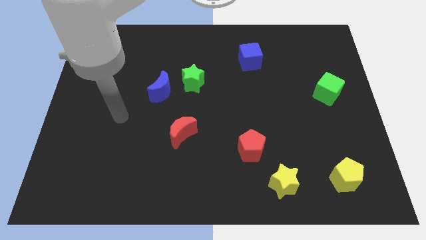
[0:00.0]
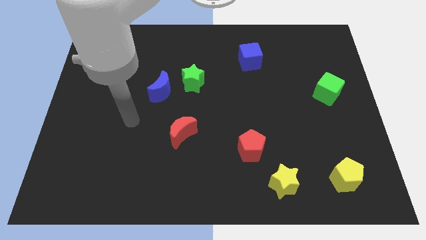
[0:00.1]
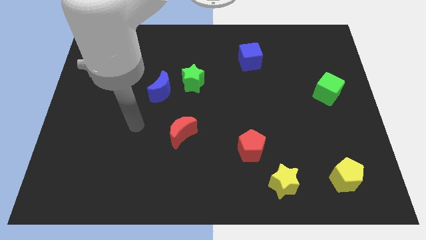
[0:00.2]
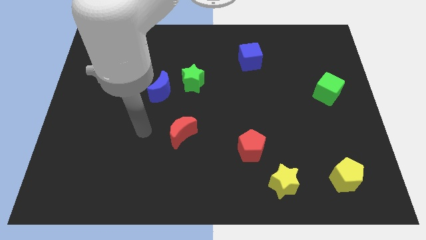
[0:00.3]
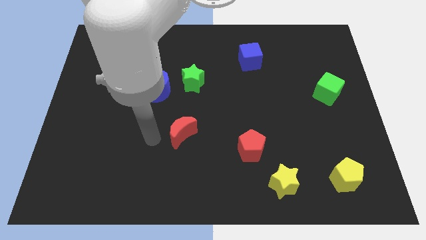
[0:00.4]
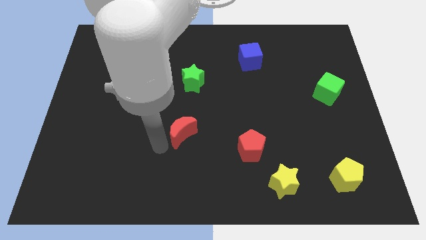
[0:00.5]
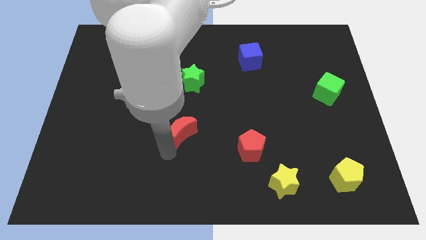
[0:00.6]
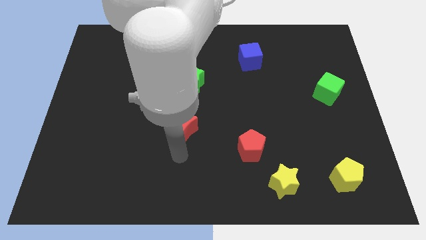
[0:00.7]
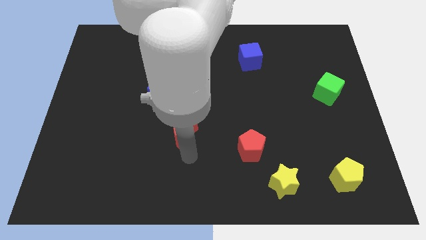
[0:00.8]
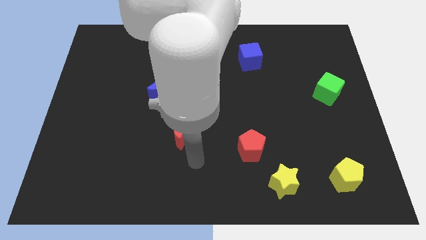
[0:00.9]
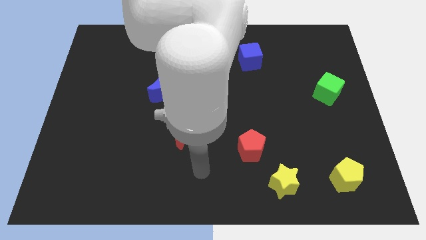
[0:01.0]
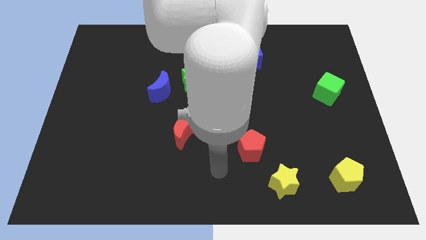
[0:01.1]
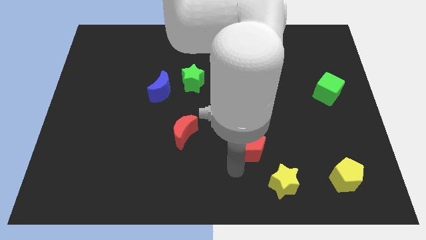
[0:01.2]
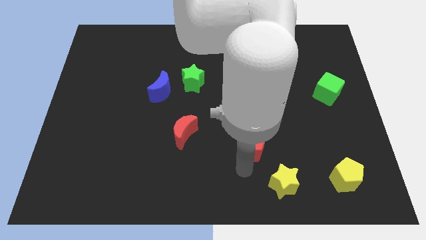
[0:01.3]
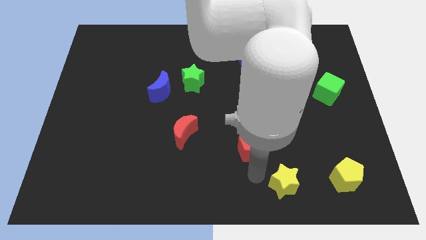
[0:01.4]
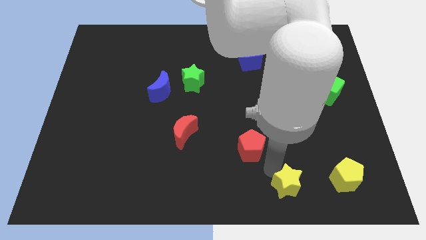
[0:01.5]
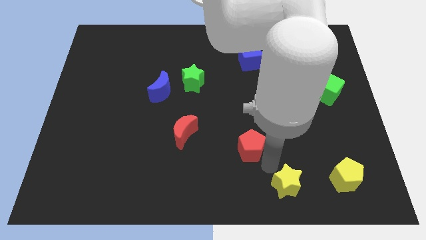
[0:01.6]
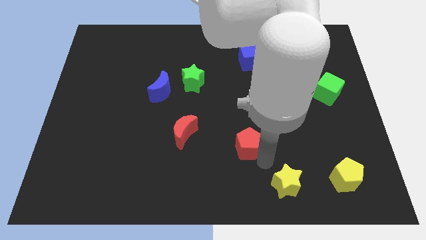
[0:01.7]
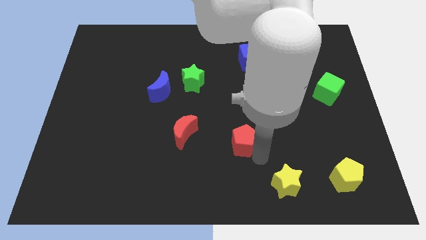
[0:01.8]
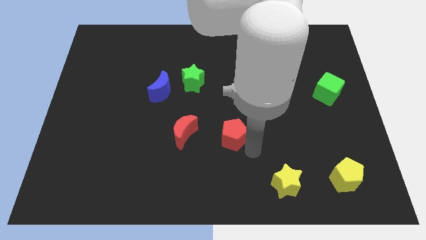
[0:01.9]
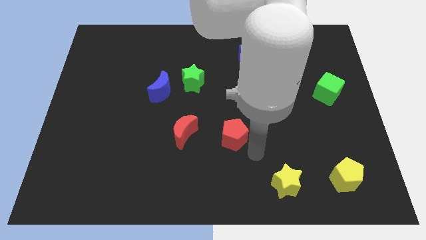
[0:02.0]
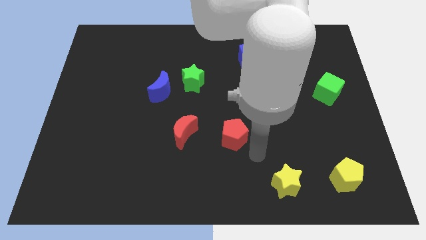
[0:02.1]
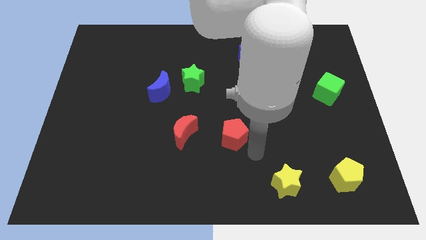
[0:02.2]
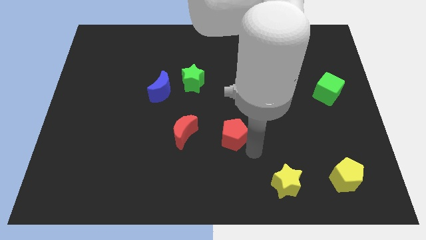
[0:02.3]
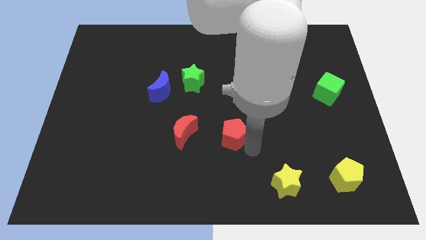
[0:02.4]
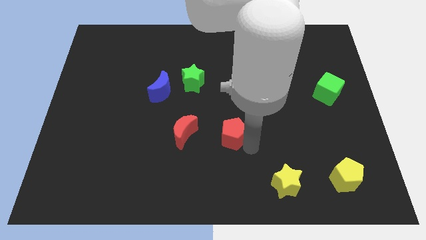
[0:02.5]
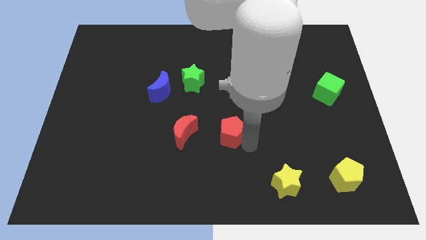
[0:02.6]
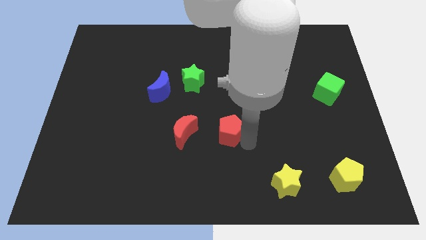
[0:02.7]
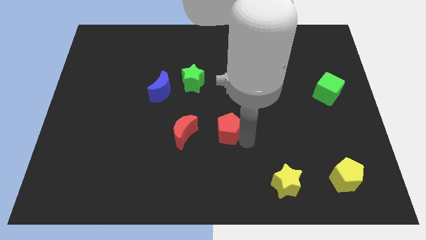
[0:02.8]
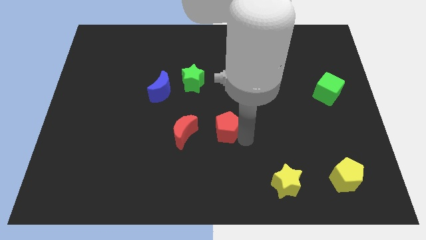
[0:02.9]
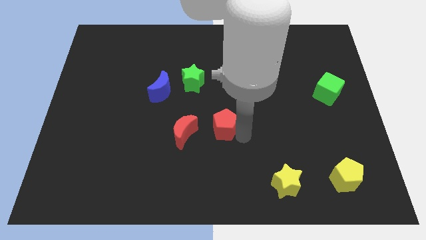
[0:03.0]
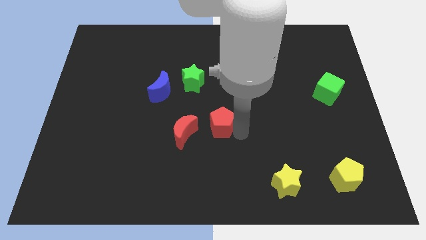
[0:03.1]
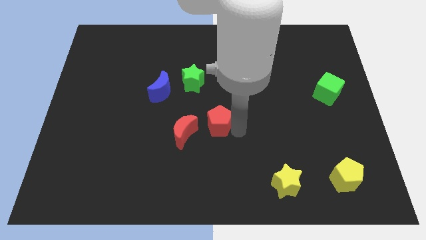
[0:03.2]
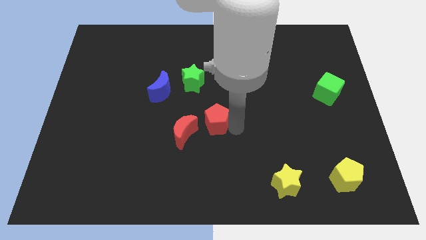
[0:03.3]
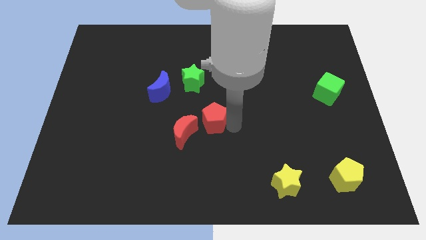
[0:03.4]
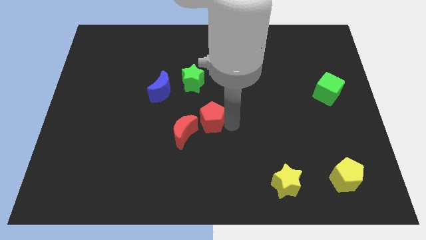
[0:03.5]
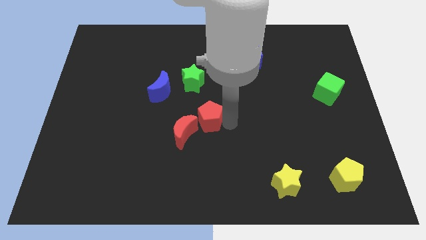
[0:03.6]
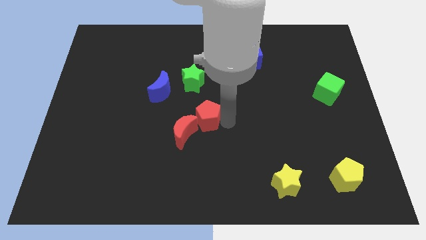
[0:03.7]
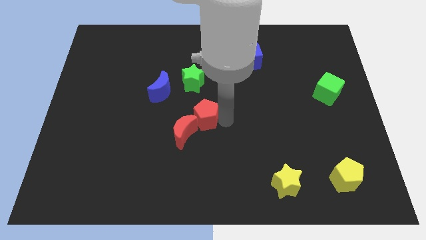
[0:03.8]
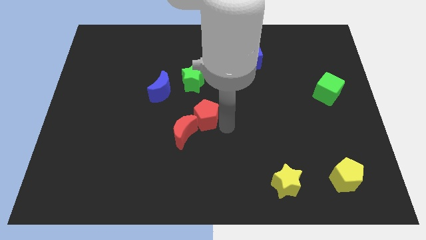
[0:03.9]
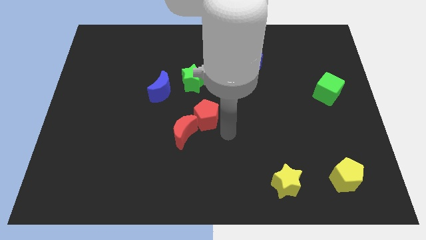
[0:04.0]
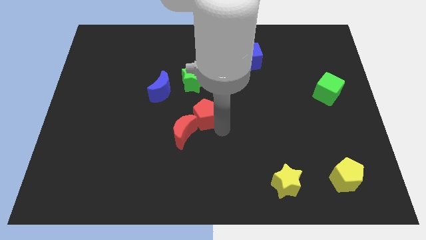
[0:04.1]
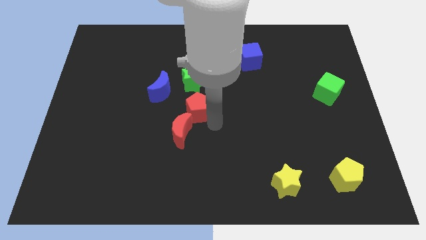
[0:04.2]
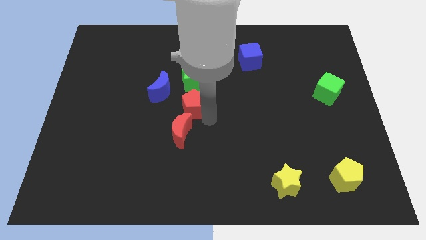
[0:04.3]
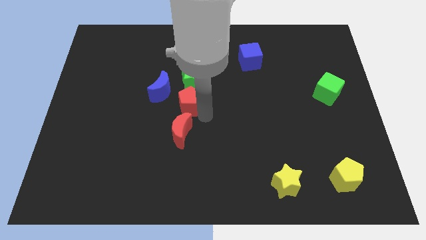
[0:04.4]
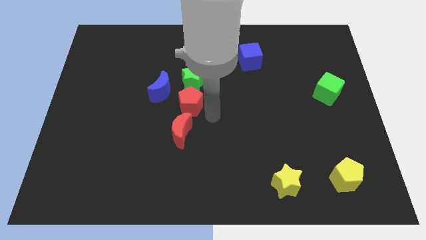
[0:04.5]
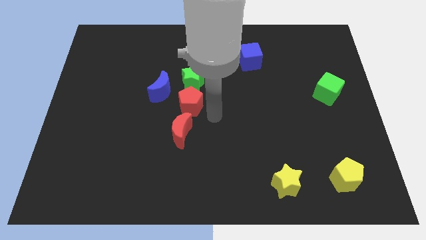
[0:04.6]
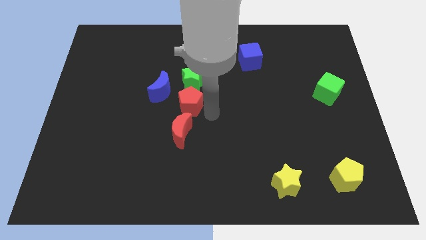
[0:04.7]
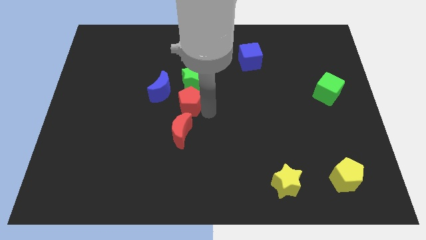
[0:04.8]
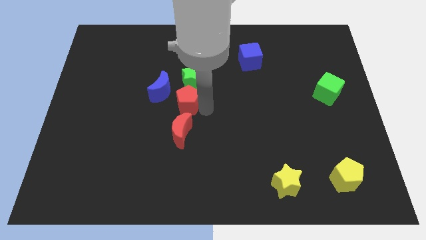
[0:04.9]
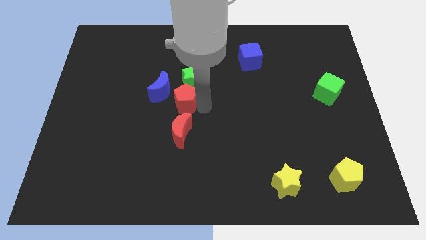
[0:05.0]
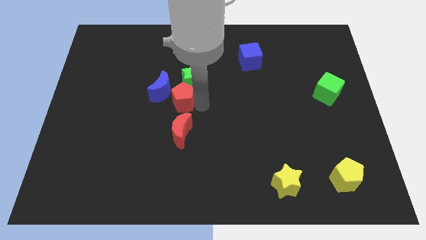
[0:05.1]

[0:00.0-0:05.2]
move the red pentagon close to the blue moon

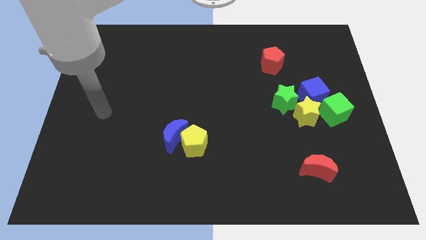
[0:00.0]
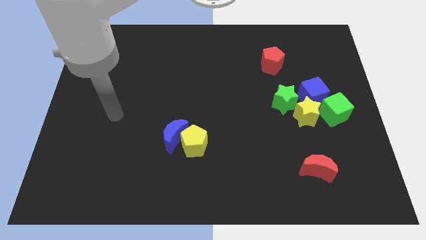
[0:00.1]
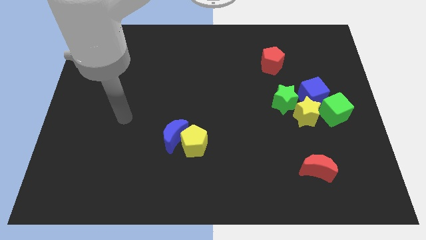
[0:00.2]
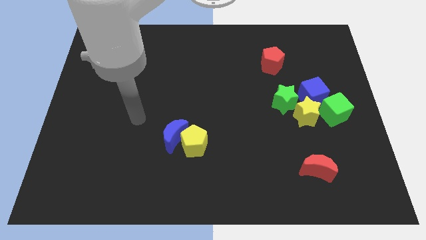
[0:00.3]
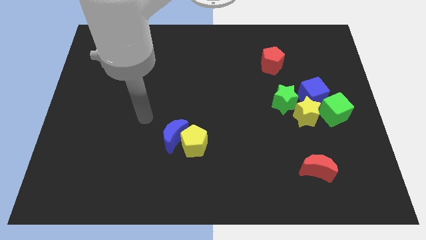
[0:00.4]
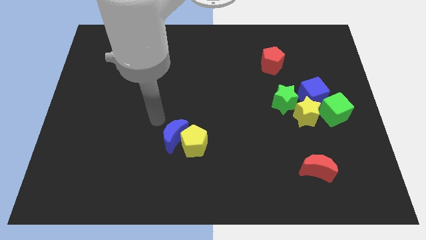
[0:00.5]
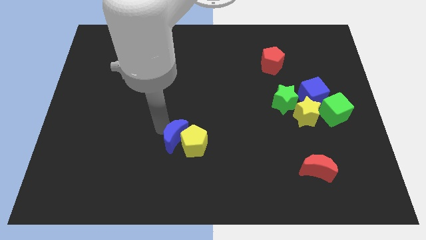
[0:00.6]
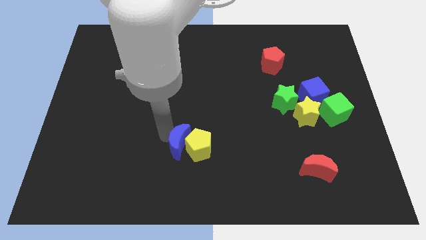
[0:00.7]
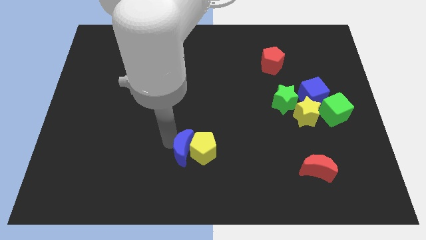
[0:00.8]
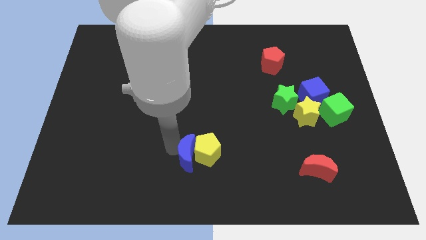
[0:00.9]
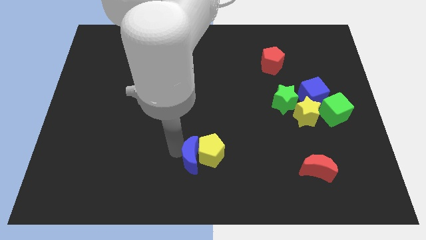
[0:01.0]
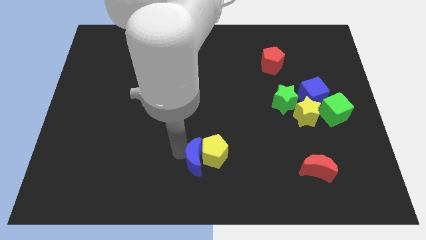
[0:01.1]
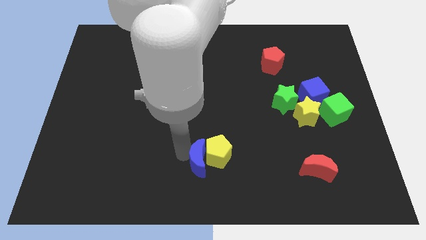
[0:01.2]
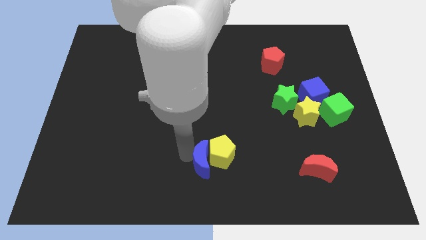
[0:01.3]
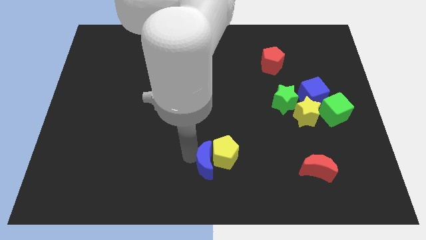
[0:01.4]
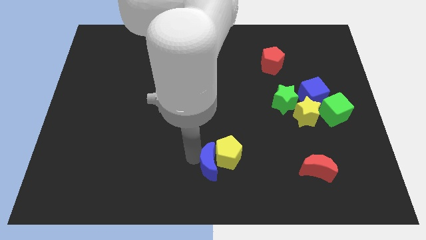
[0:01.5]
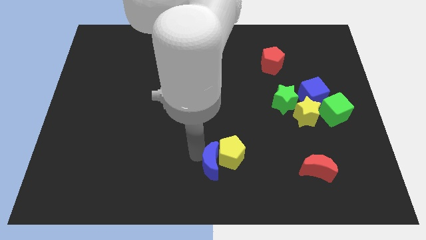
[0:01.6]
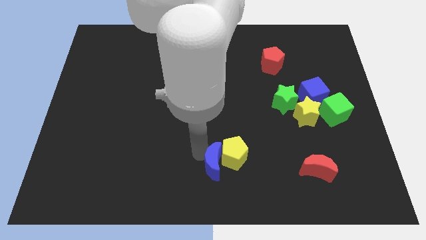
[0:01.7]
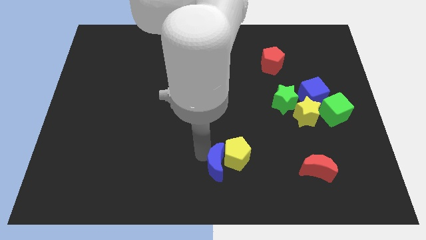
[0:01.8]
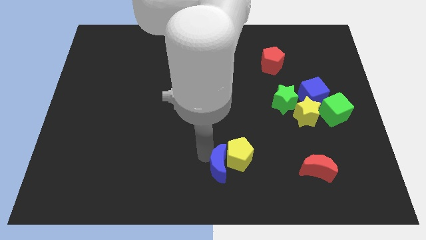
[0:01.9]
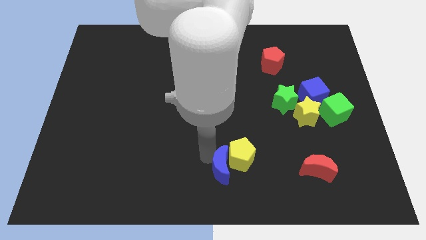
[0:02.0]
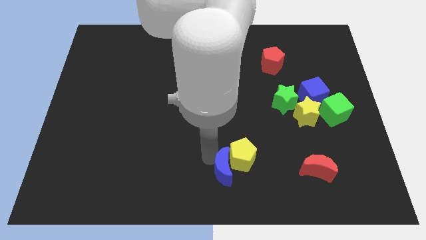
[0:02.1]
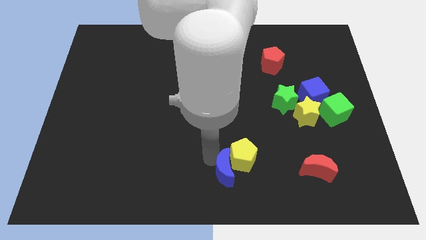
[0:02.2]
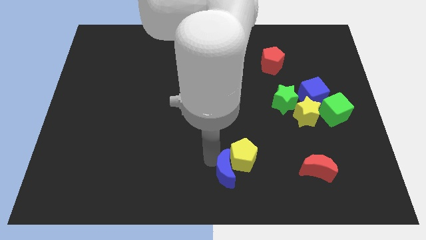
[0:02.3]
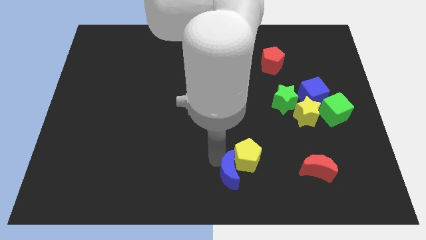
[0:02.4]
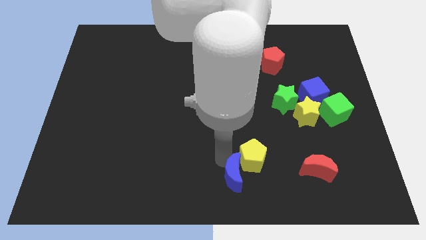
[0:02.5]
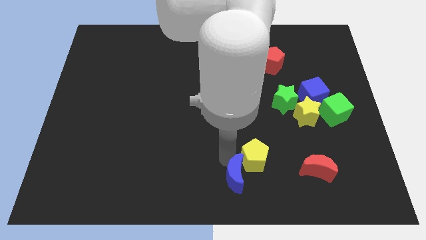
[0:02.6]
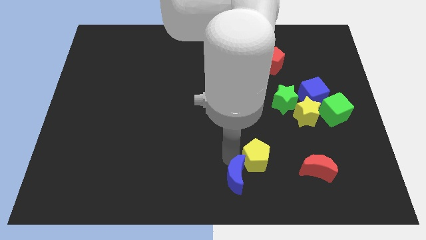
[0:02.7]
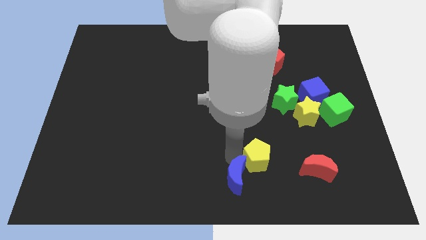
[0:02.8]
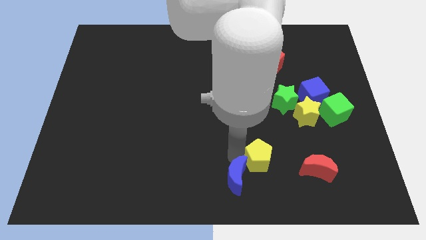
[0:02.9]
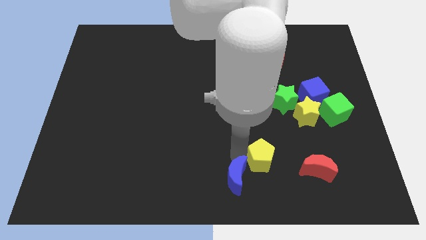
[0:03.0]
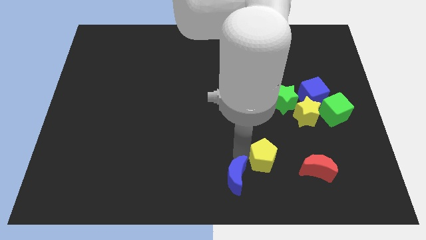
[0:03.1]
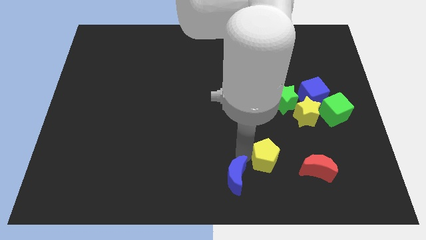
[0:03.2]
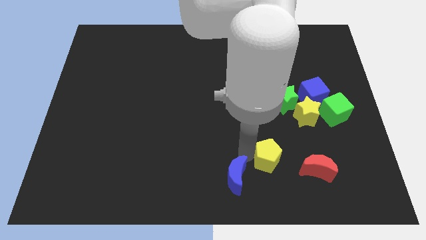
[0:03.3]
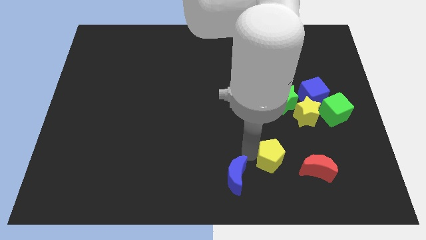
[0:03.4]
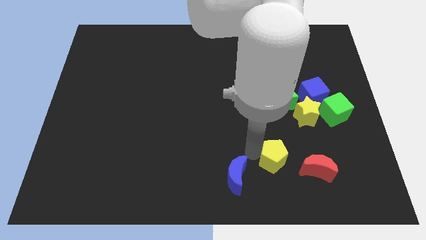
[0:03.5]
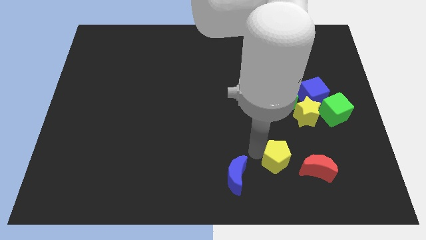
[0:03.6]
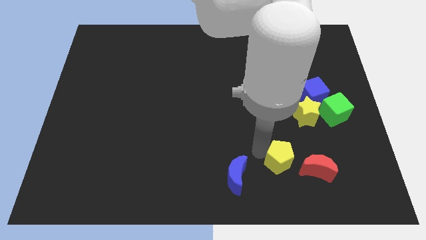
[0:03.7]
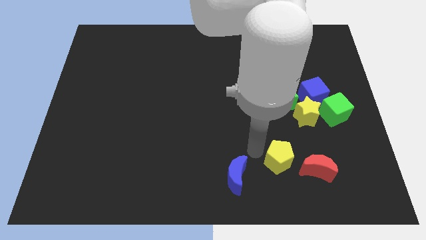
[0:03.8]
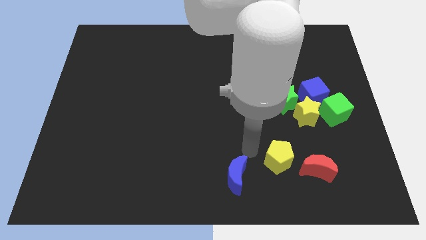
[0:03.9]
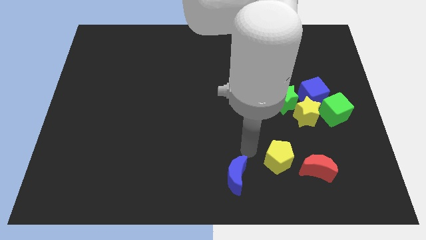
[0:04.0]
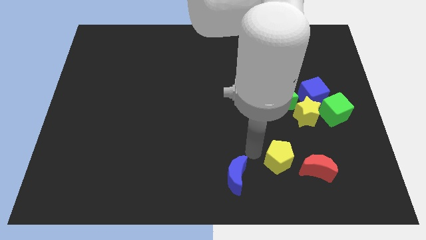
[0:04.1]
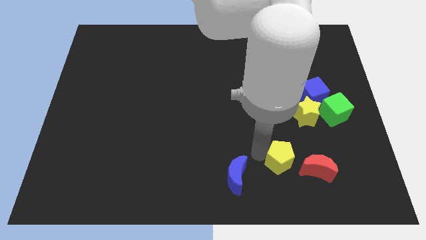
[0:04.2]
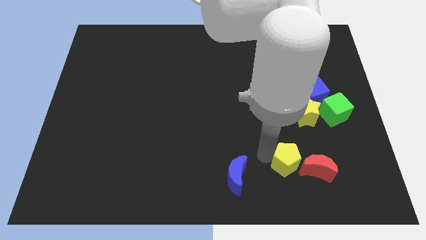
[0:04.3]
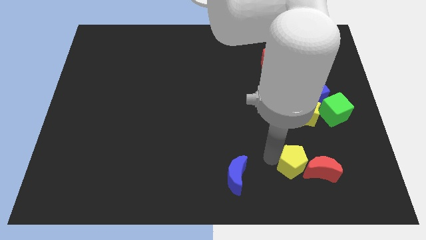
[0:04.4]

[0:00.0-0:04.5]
put the yellow pentagon towards the red moon
